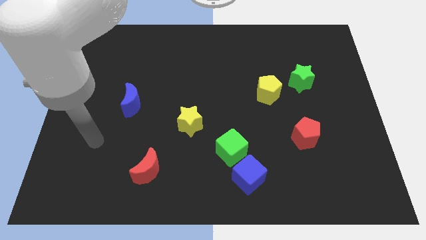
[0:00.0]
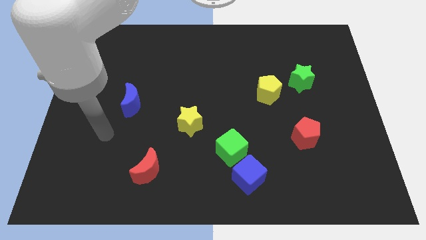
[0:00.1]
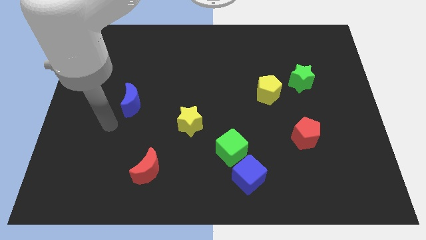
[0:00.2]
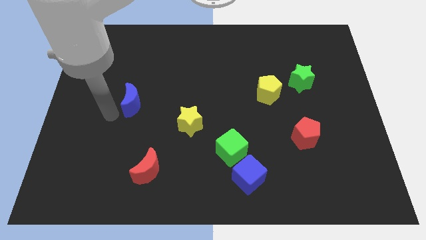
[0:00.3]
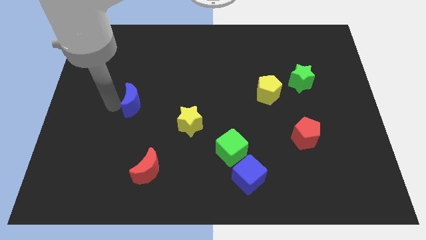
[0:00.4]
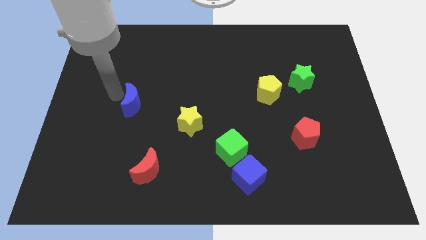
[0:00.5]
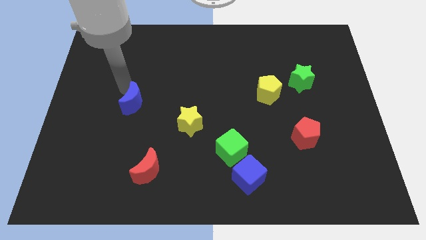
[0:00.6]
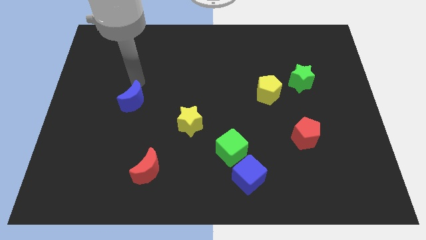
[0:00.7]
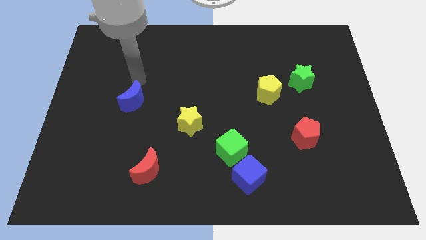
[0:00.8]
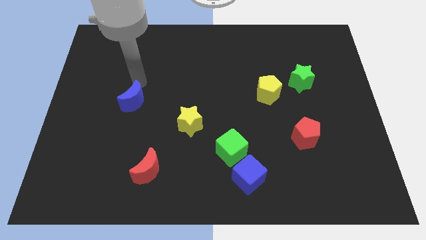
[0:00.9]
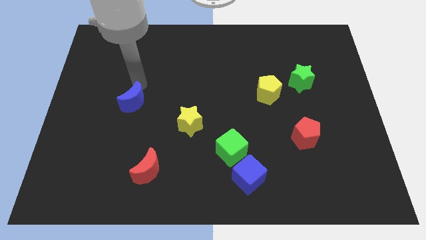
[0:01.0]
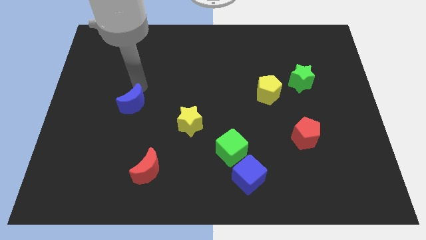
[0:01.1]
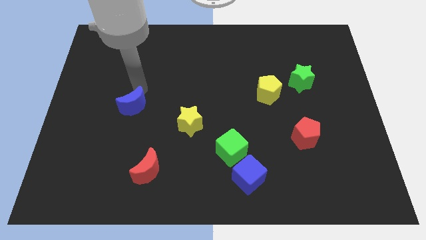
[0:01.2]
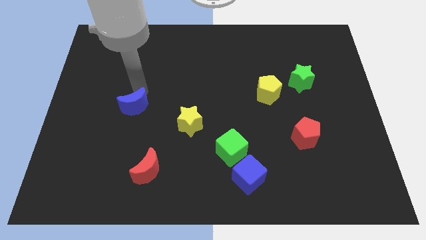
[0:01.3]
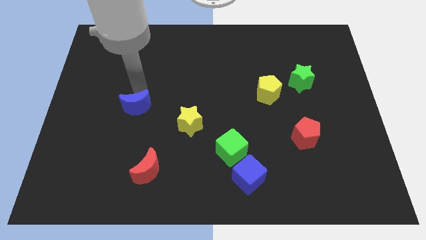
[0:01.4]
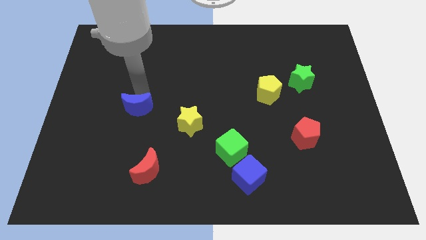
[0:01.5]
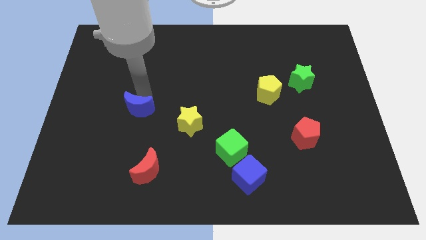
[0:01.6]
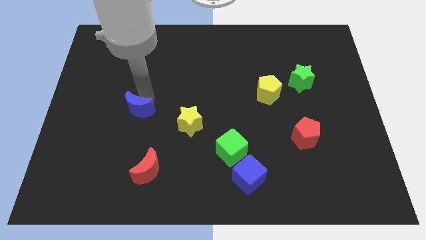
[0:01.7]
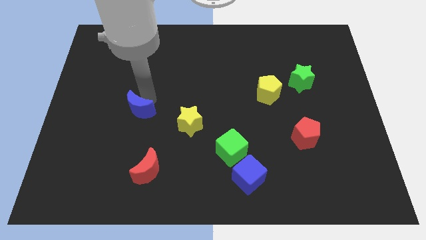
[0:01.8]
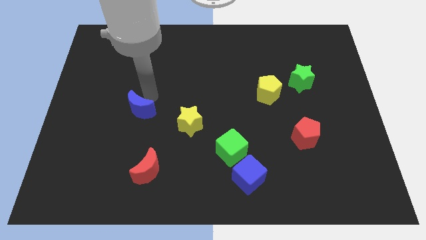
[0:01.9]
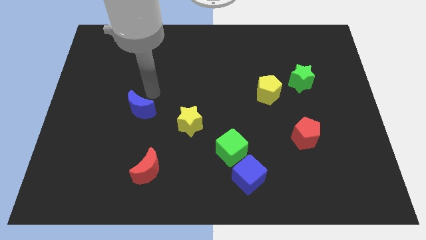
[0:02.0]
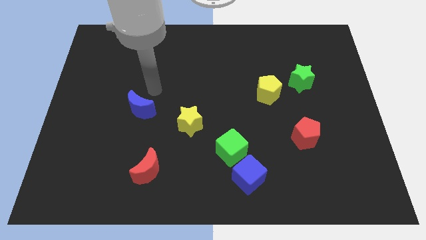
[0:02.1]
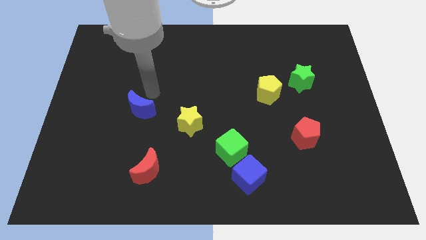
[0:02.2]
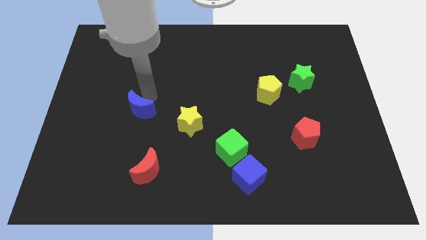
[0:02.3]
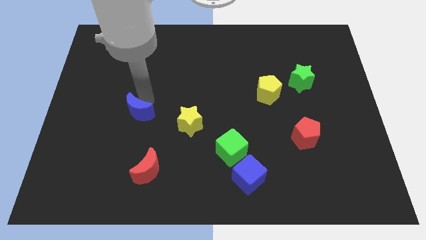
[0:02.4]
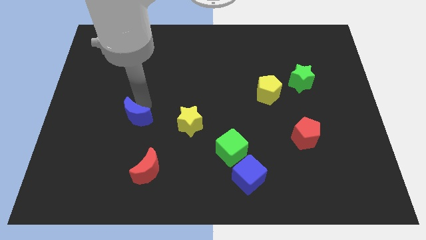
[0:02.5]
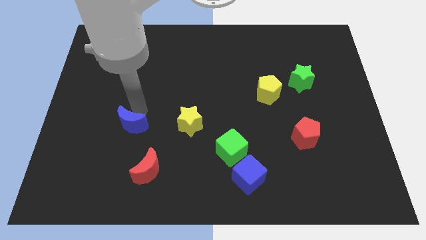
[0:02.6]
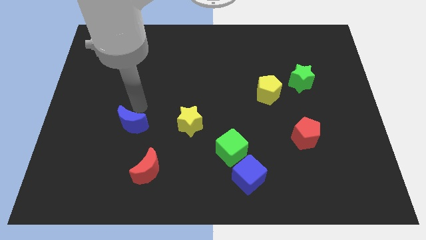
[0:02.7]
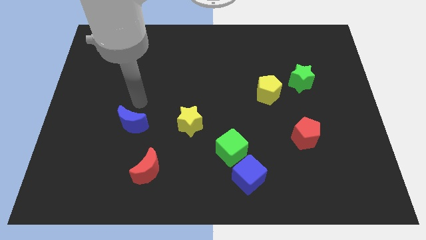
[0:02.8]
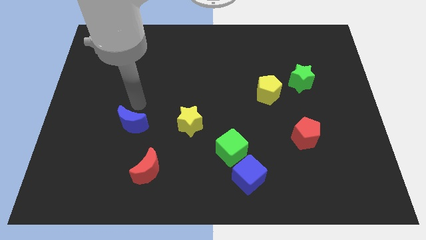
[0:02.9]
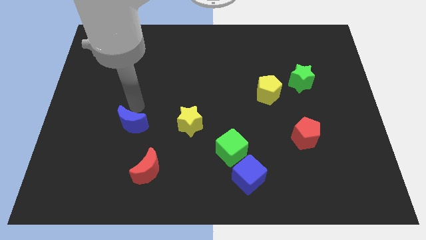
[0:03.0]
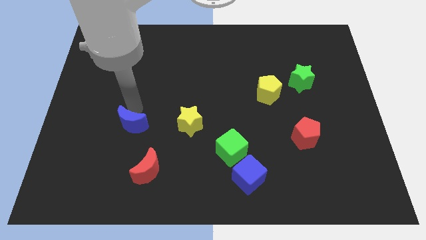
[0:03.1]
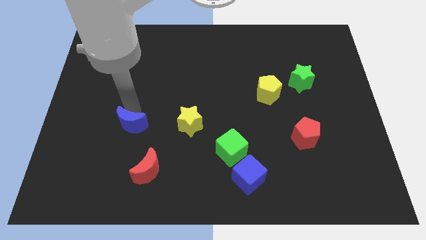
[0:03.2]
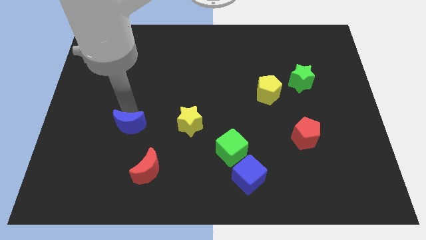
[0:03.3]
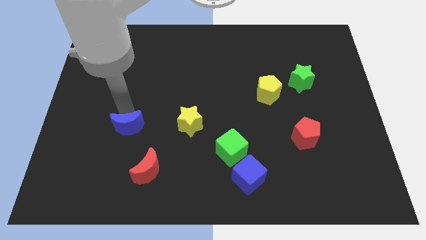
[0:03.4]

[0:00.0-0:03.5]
move the blue moon down a little

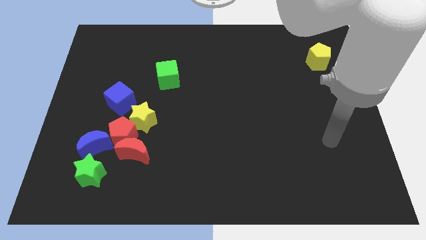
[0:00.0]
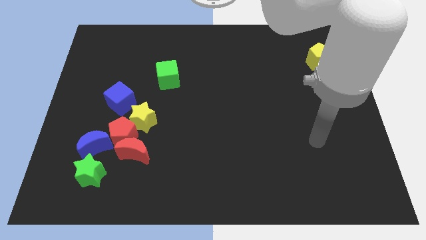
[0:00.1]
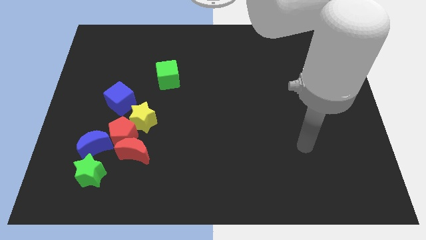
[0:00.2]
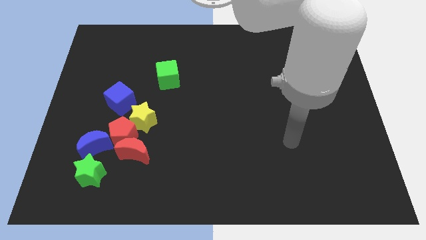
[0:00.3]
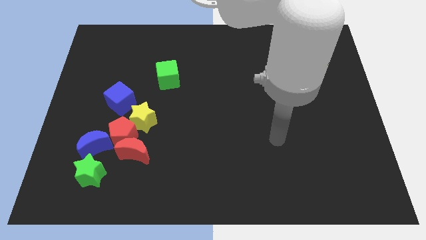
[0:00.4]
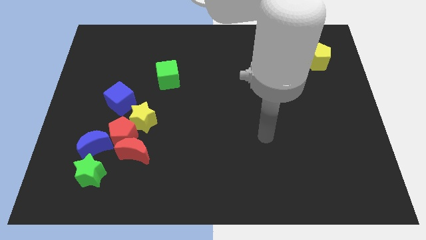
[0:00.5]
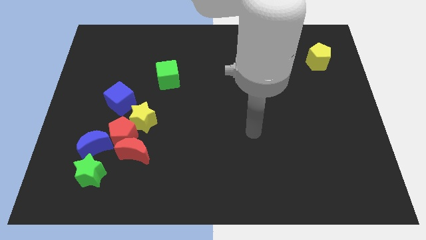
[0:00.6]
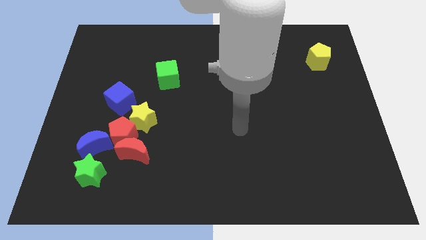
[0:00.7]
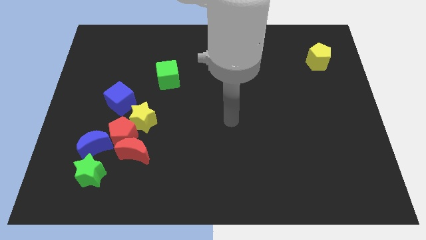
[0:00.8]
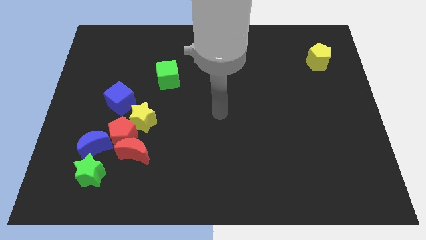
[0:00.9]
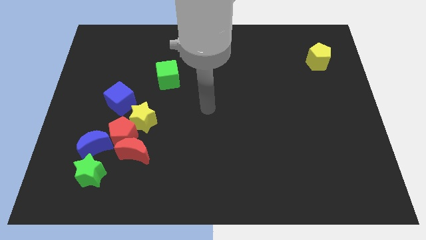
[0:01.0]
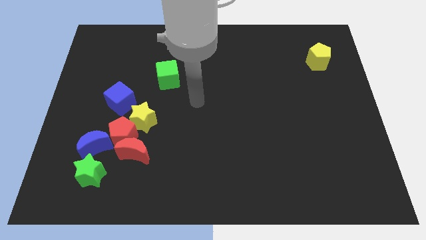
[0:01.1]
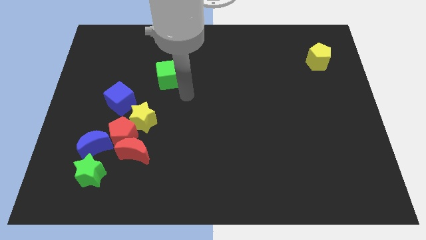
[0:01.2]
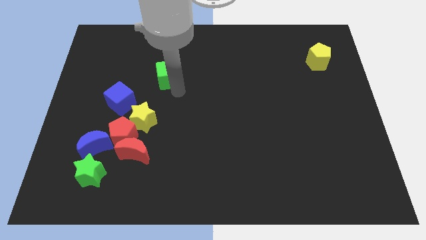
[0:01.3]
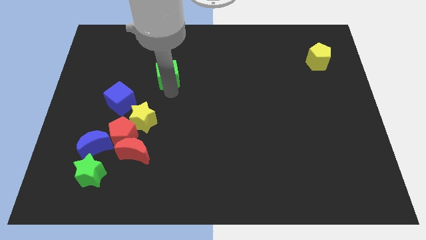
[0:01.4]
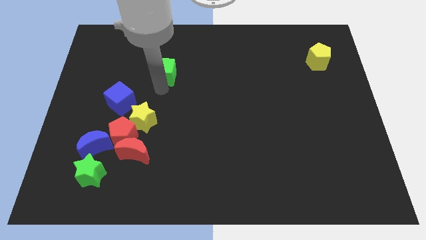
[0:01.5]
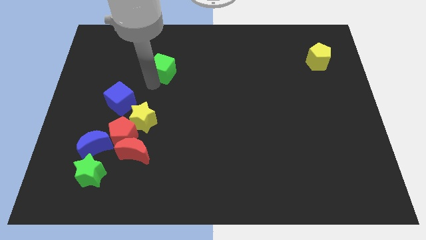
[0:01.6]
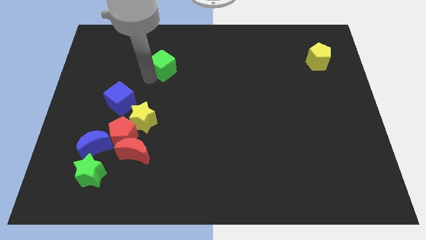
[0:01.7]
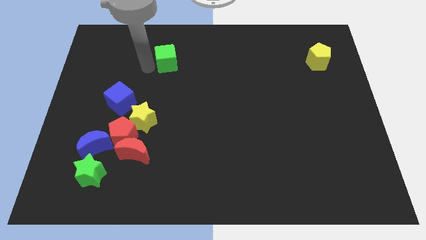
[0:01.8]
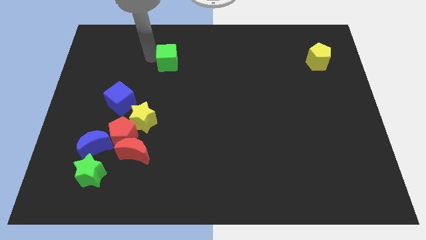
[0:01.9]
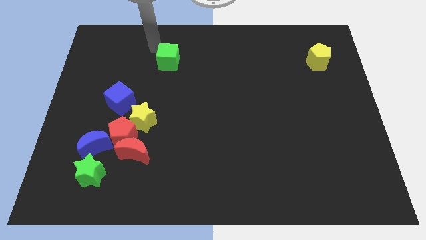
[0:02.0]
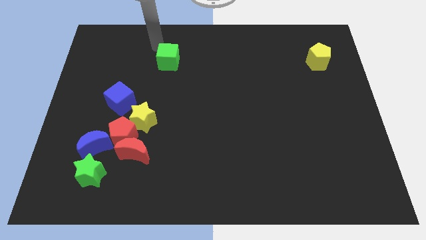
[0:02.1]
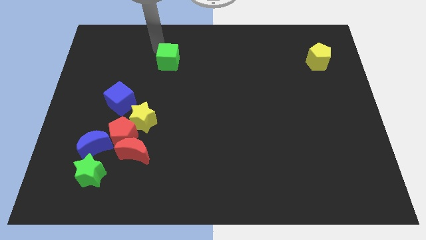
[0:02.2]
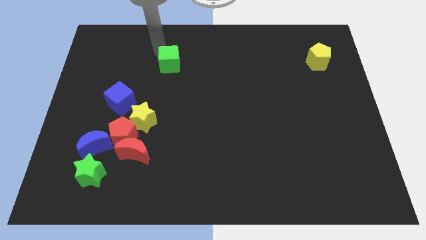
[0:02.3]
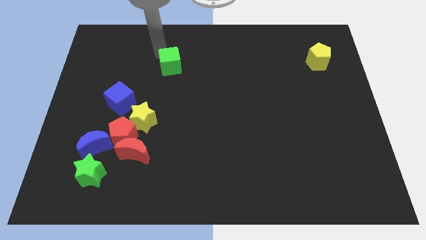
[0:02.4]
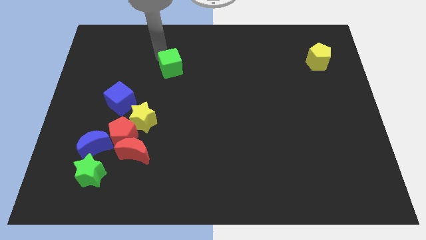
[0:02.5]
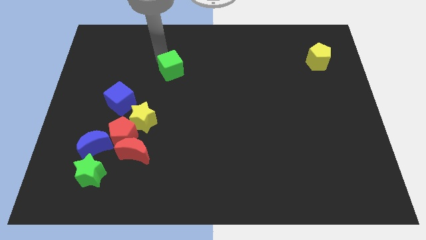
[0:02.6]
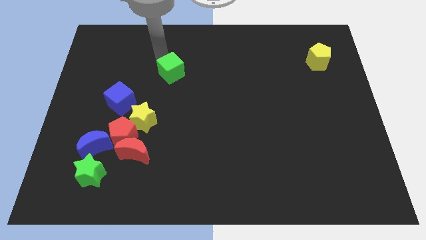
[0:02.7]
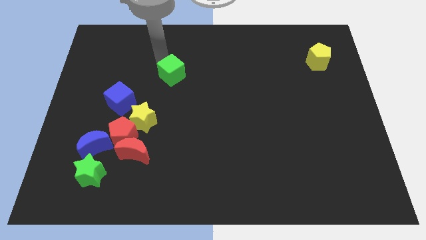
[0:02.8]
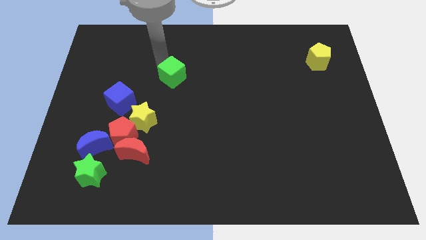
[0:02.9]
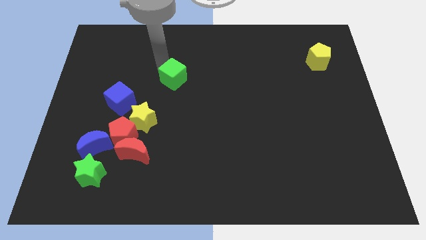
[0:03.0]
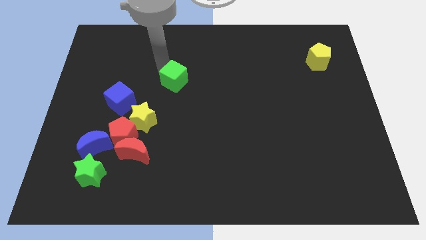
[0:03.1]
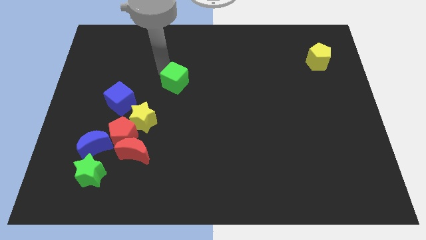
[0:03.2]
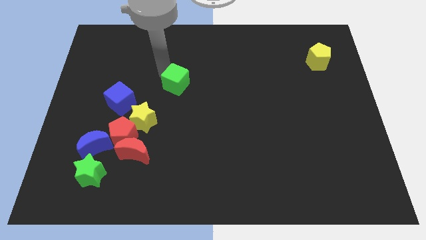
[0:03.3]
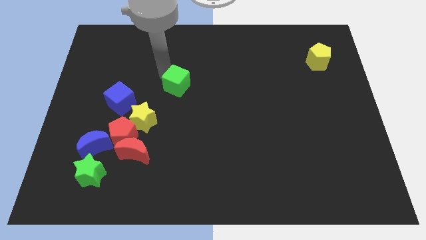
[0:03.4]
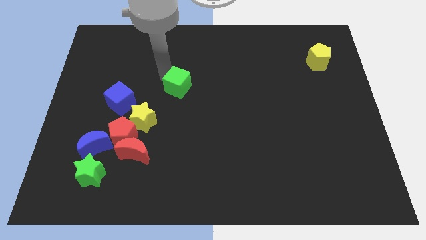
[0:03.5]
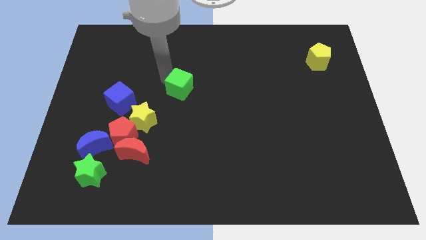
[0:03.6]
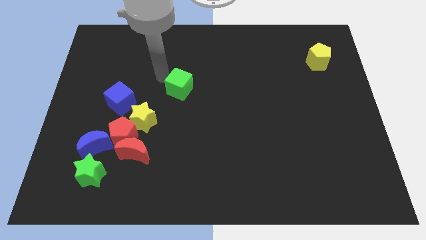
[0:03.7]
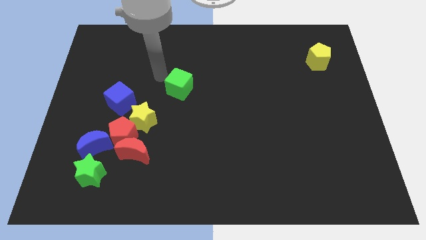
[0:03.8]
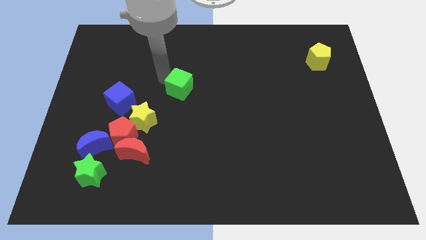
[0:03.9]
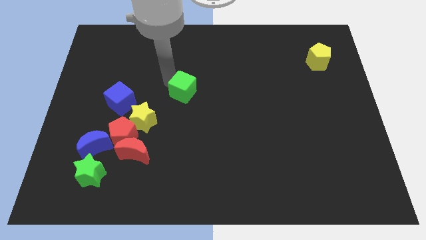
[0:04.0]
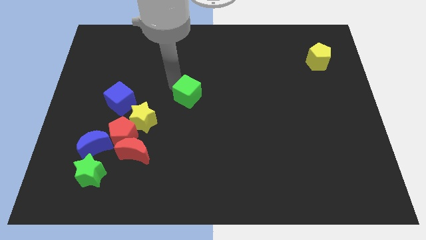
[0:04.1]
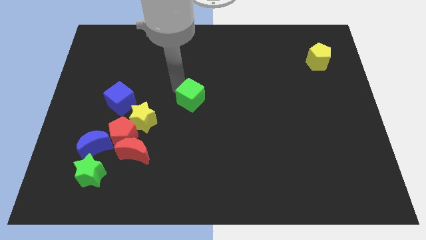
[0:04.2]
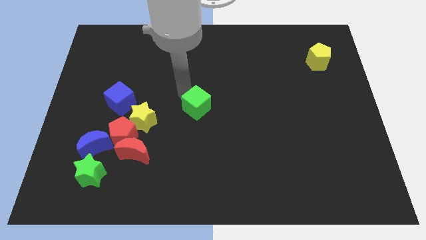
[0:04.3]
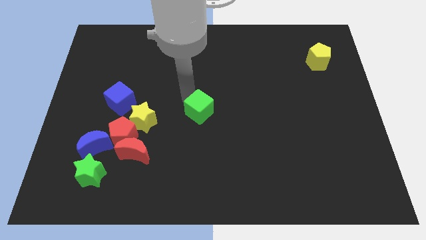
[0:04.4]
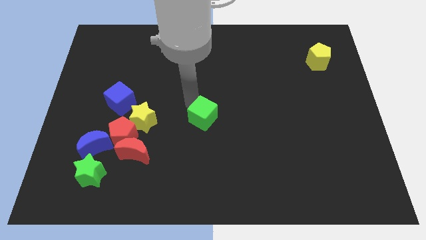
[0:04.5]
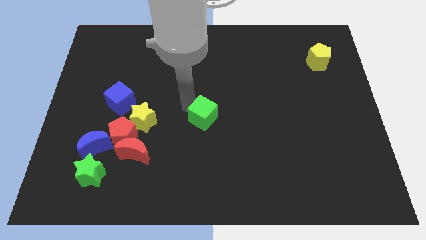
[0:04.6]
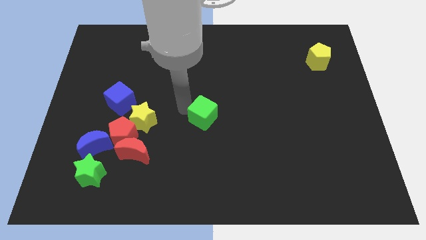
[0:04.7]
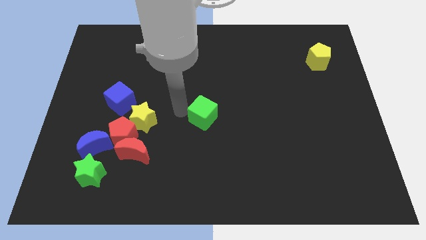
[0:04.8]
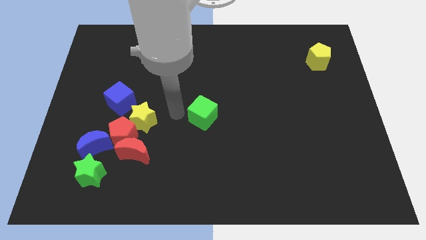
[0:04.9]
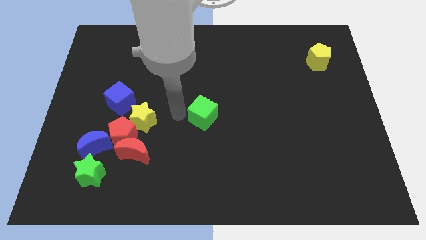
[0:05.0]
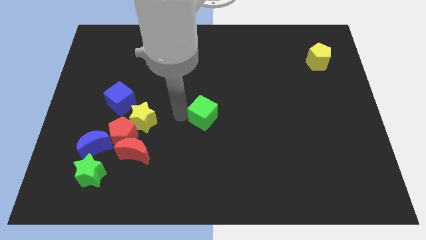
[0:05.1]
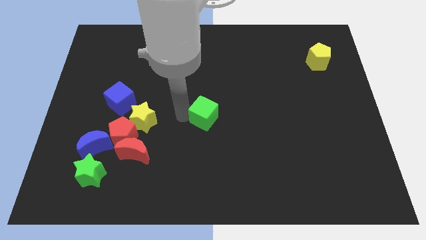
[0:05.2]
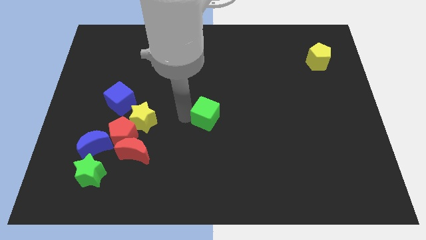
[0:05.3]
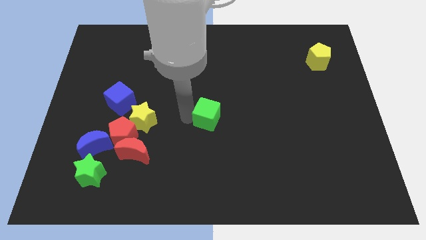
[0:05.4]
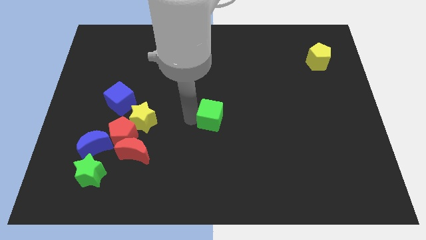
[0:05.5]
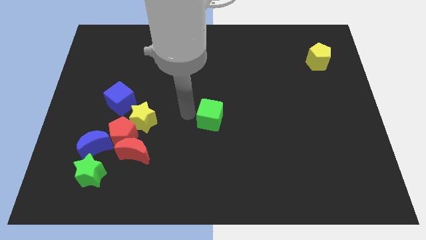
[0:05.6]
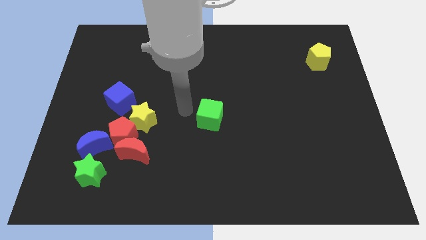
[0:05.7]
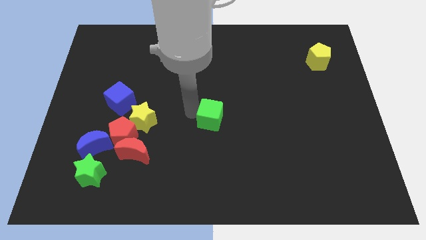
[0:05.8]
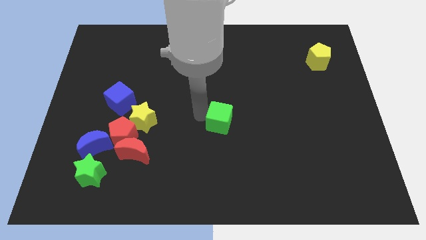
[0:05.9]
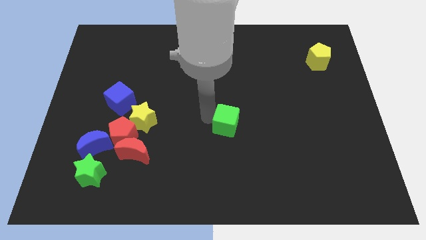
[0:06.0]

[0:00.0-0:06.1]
push the green cube downwards and then right
